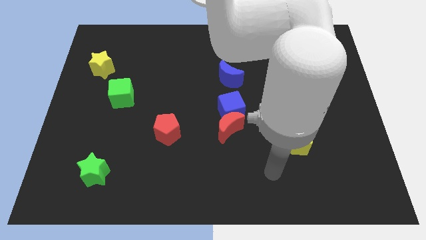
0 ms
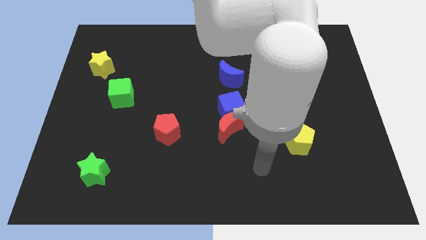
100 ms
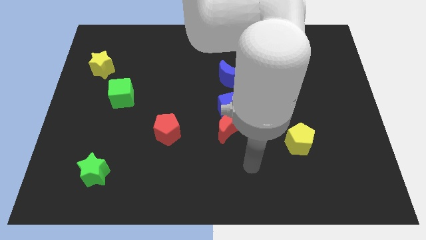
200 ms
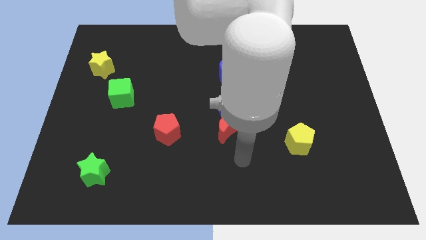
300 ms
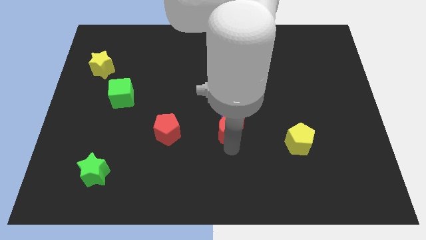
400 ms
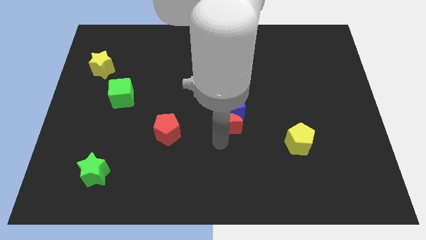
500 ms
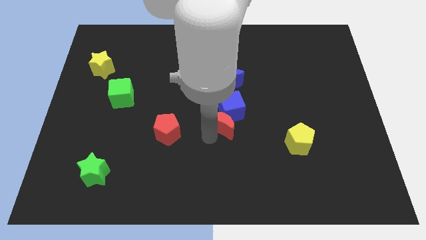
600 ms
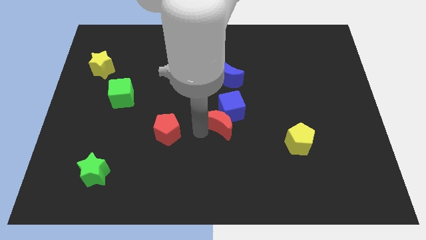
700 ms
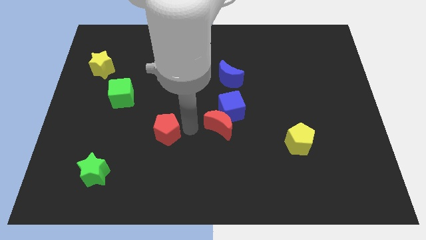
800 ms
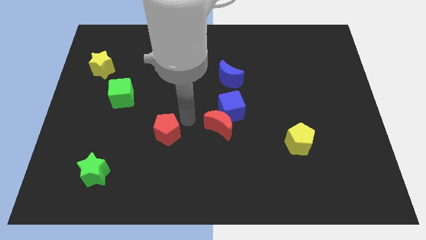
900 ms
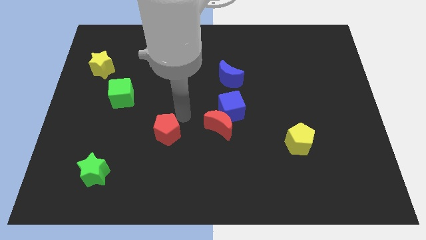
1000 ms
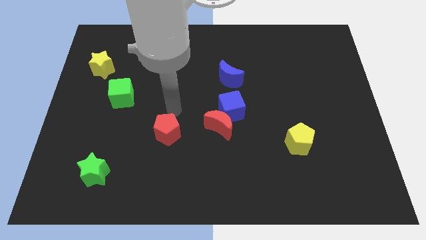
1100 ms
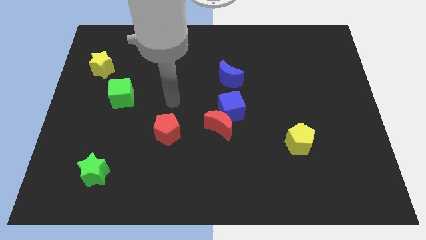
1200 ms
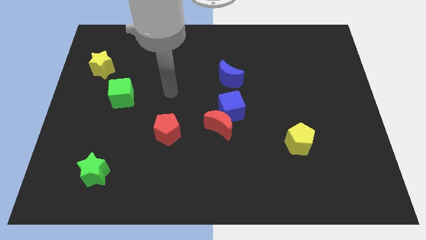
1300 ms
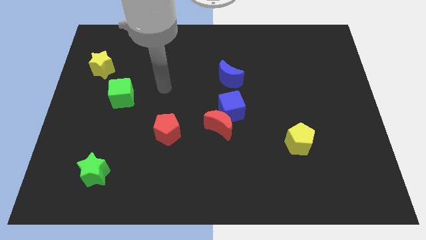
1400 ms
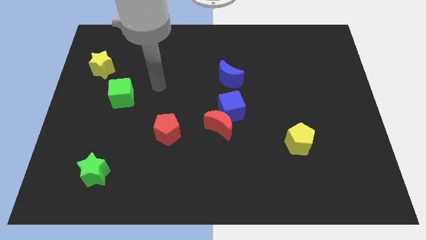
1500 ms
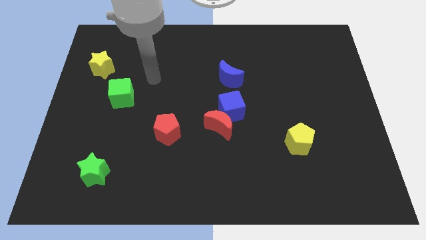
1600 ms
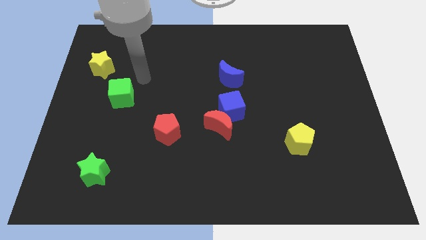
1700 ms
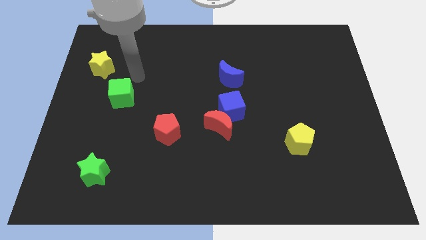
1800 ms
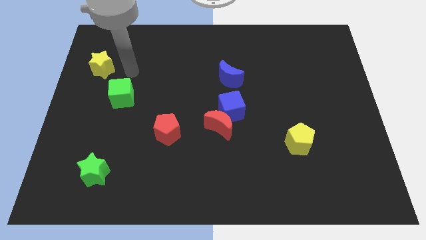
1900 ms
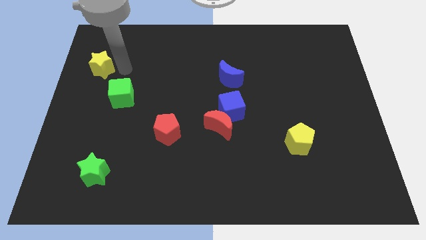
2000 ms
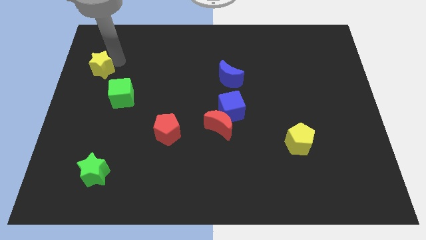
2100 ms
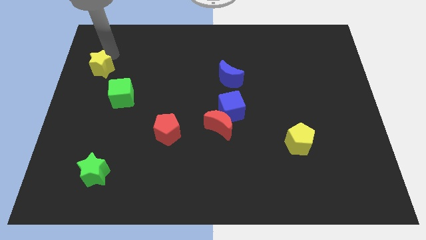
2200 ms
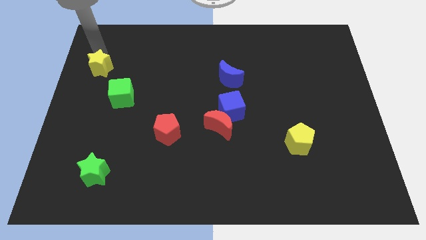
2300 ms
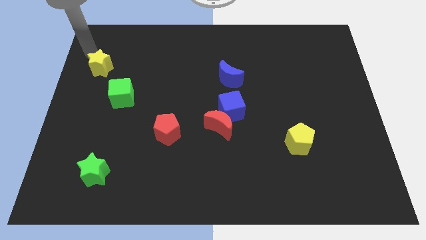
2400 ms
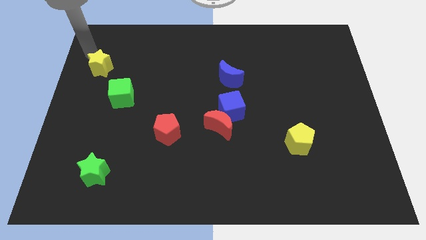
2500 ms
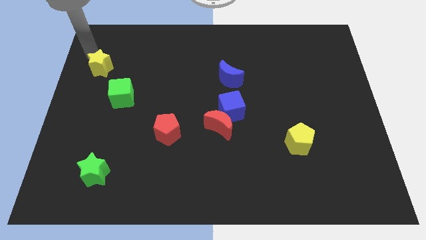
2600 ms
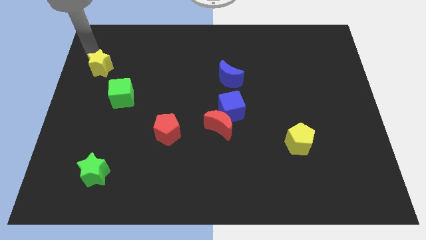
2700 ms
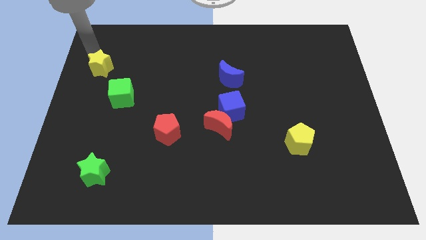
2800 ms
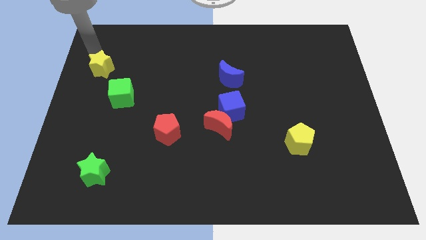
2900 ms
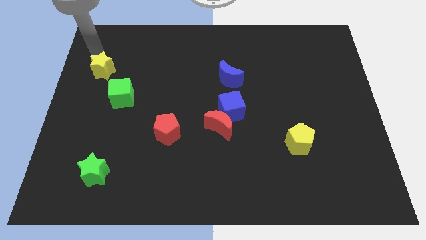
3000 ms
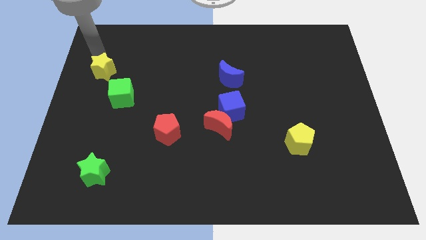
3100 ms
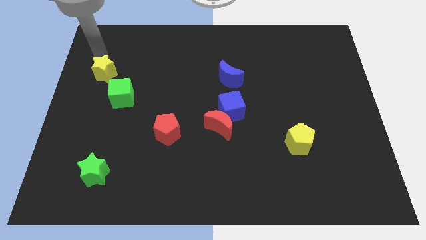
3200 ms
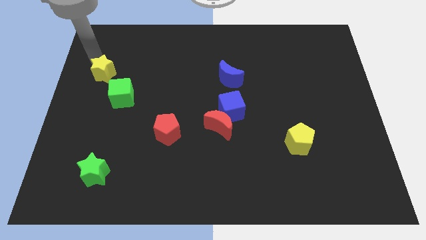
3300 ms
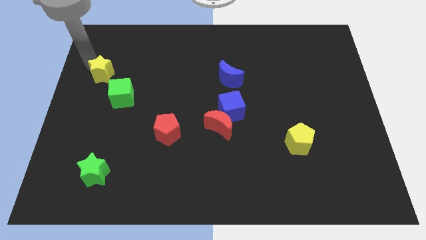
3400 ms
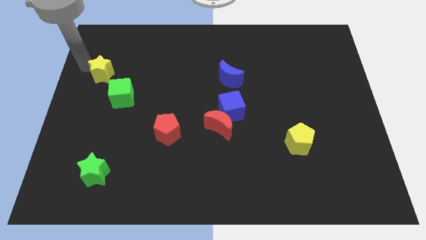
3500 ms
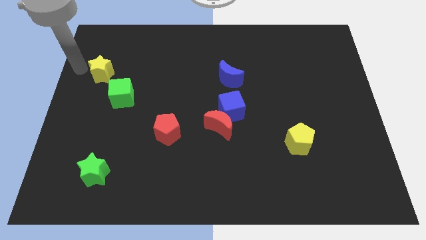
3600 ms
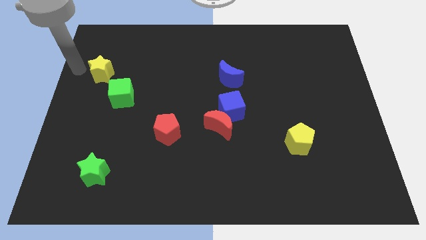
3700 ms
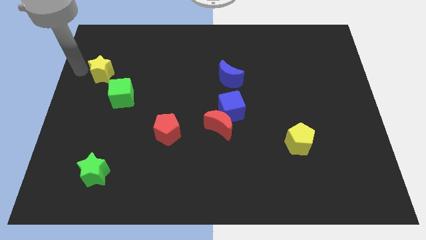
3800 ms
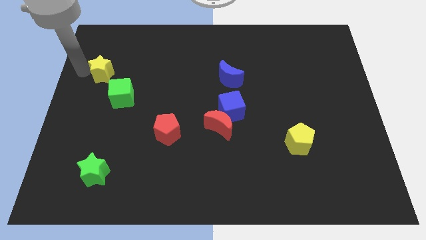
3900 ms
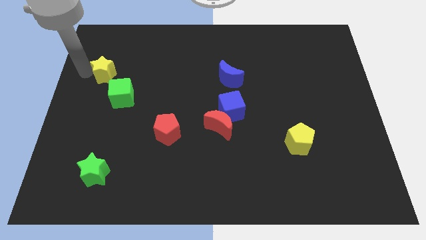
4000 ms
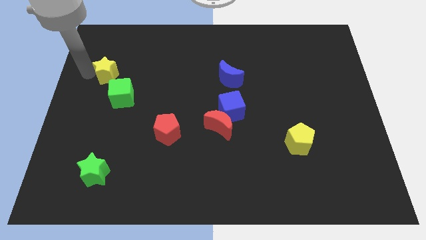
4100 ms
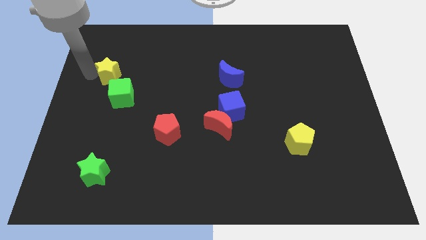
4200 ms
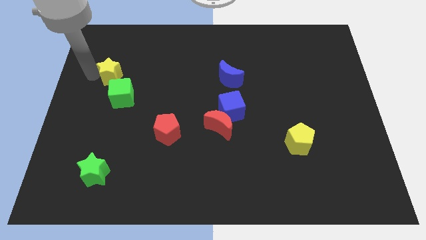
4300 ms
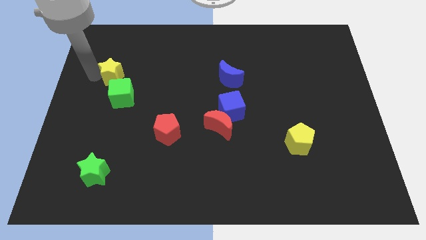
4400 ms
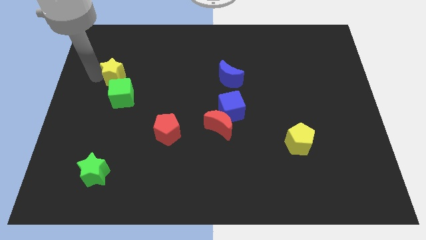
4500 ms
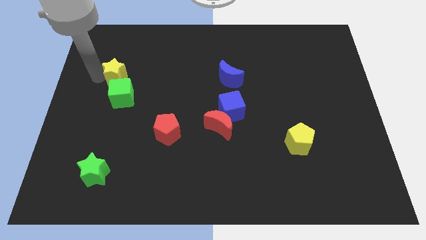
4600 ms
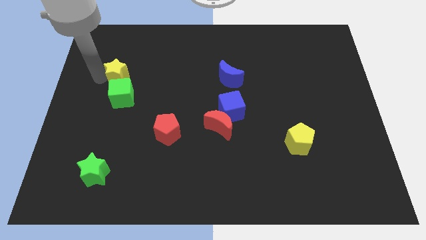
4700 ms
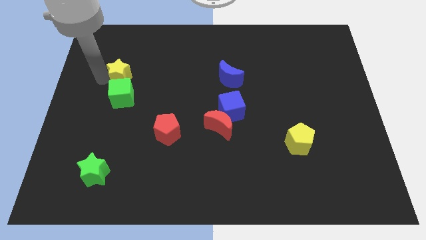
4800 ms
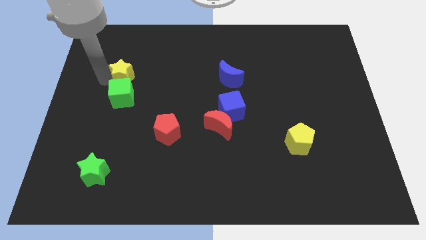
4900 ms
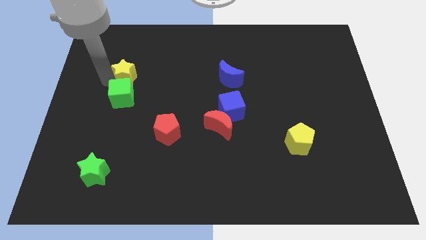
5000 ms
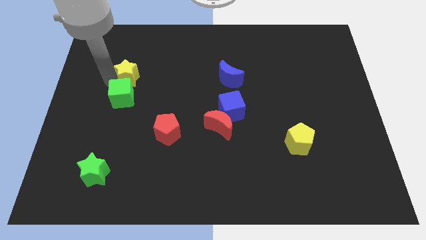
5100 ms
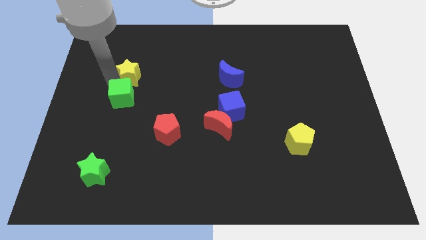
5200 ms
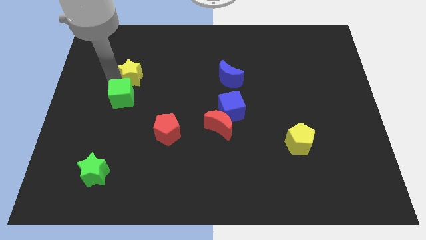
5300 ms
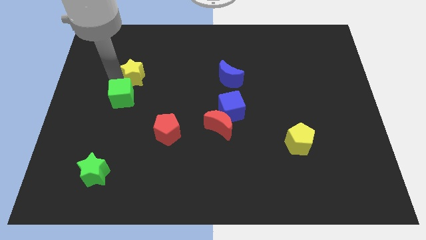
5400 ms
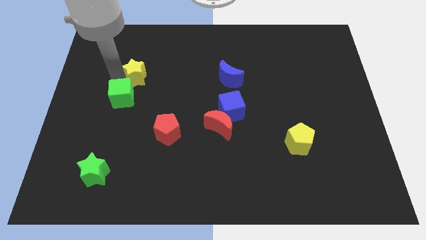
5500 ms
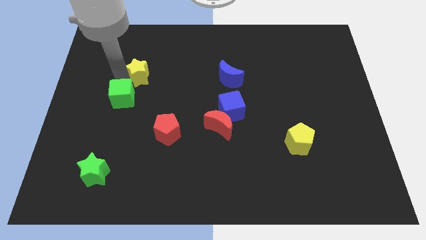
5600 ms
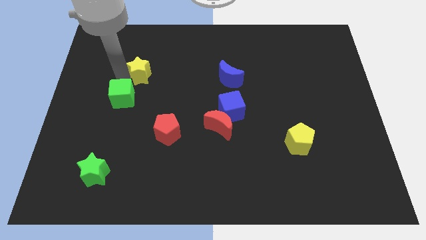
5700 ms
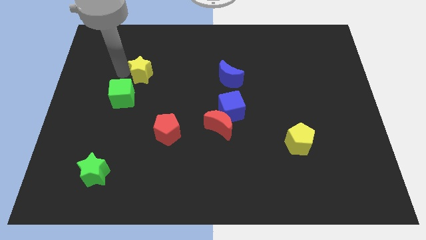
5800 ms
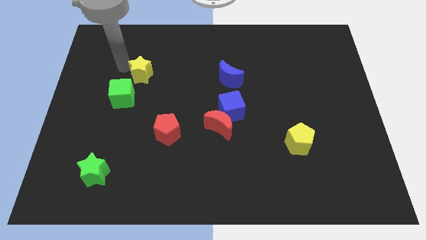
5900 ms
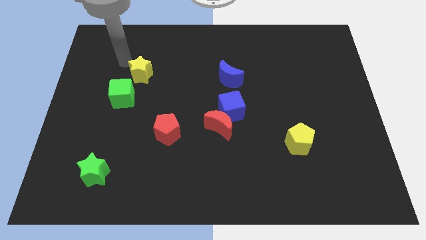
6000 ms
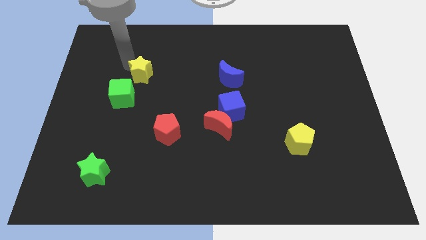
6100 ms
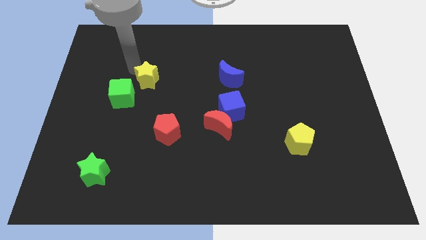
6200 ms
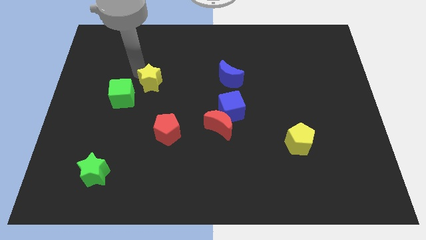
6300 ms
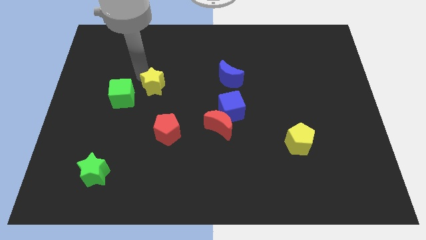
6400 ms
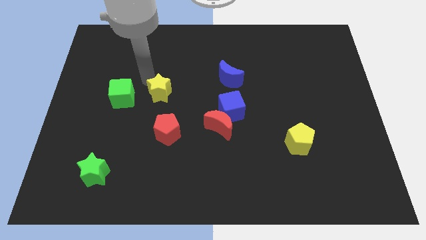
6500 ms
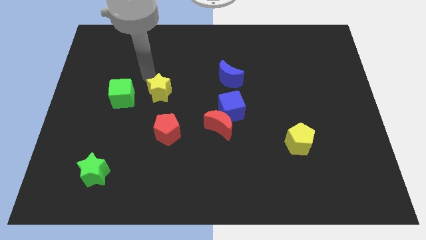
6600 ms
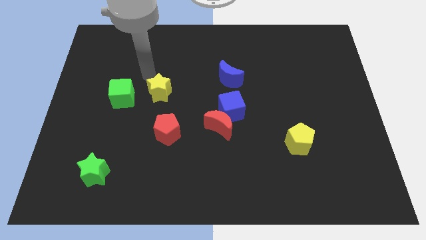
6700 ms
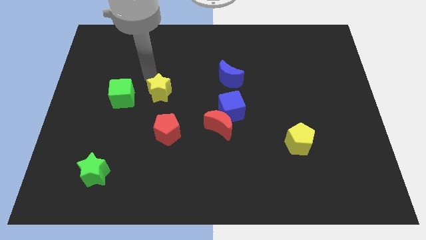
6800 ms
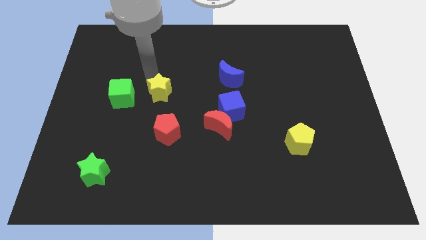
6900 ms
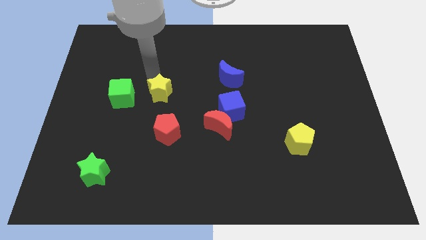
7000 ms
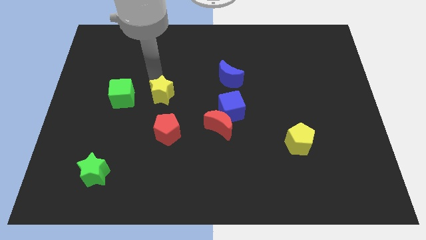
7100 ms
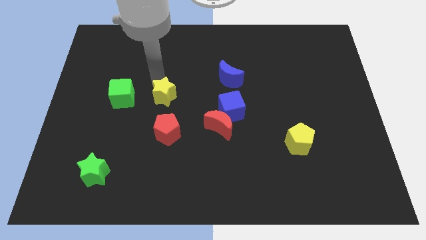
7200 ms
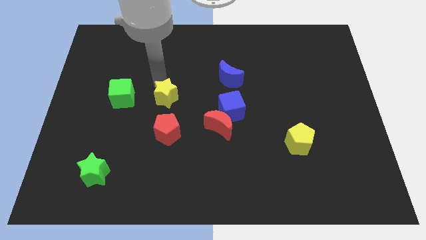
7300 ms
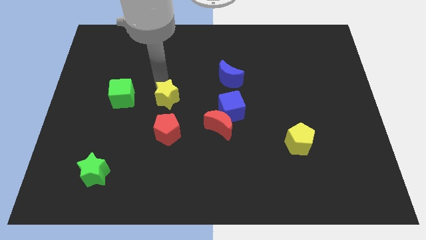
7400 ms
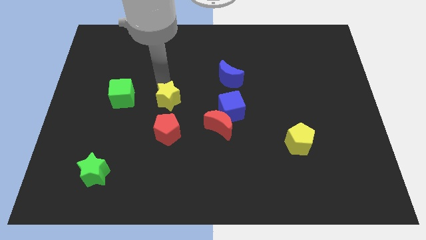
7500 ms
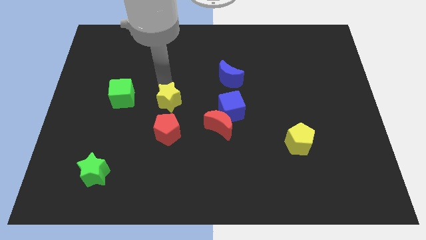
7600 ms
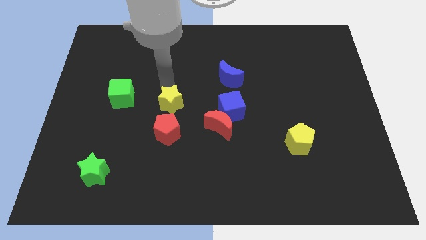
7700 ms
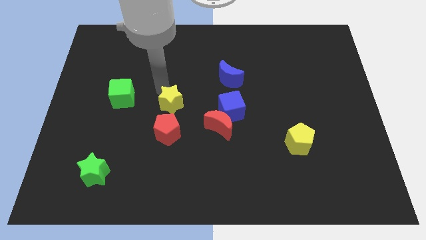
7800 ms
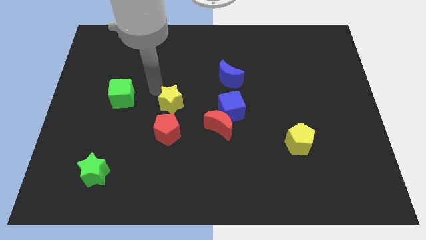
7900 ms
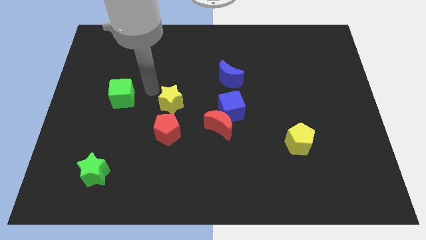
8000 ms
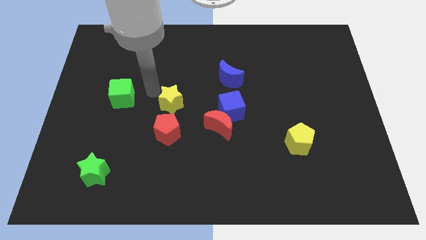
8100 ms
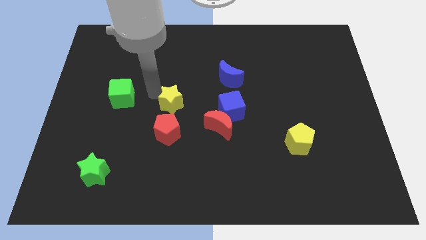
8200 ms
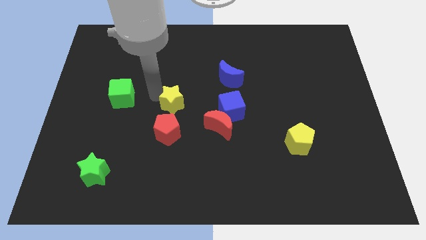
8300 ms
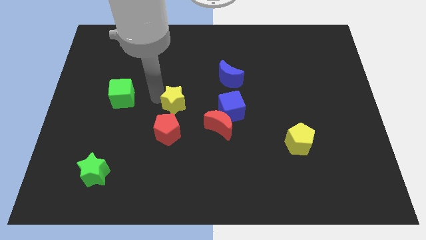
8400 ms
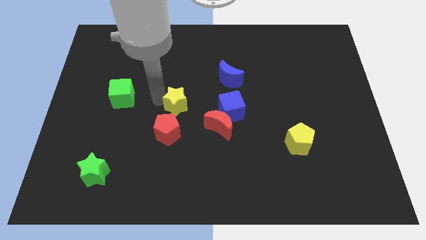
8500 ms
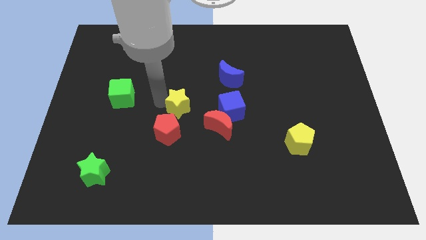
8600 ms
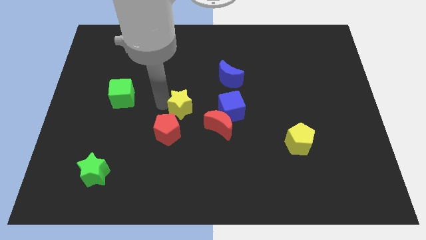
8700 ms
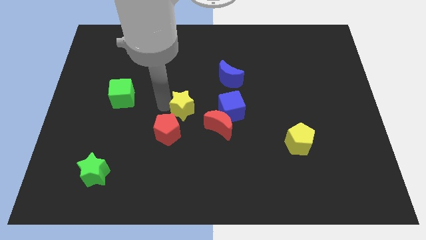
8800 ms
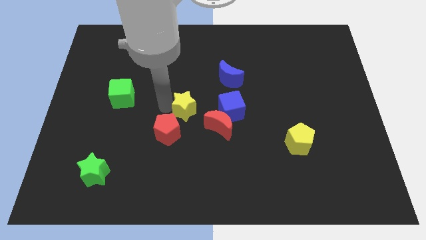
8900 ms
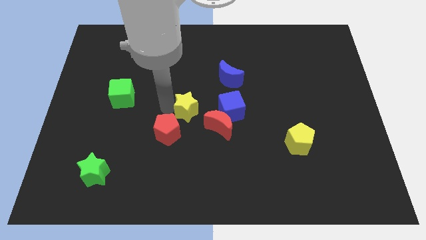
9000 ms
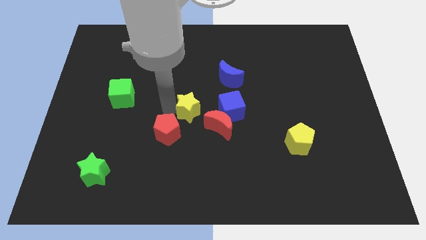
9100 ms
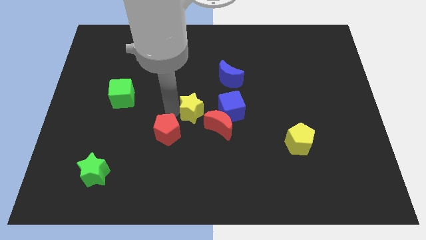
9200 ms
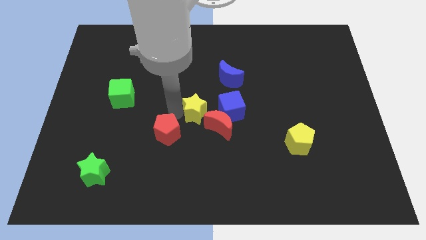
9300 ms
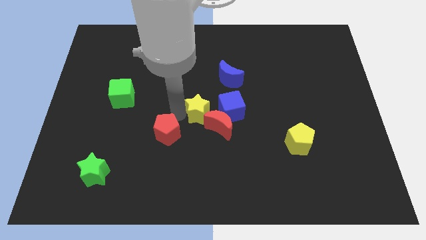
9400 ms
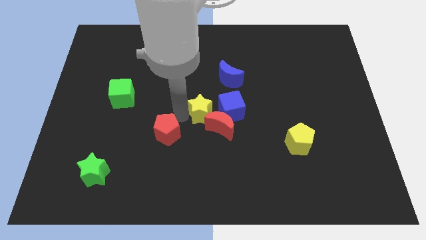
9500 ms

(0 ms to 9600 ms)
move the yellow star next to the red moon
